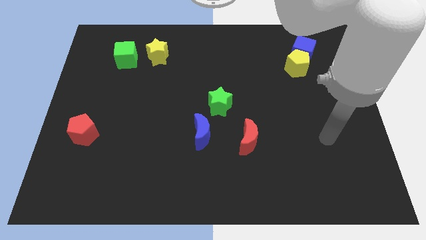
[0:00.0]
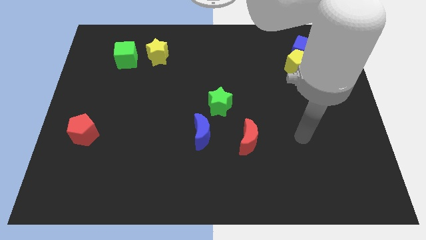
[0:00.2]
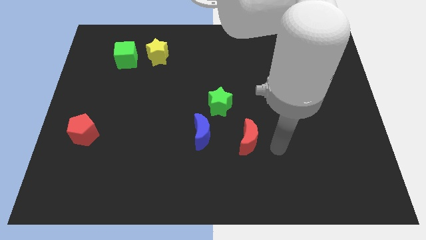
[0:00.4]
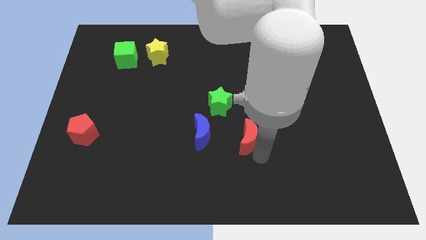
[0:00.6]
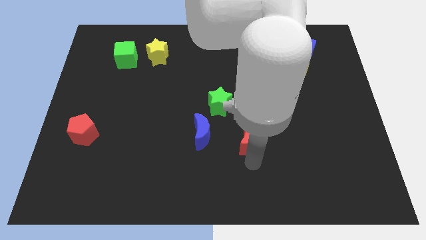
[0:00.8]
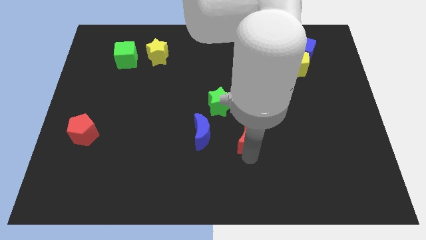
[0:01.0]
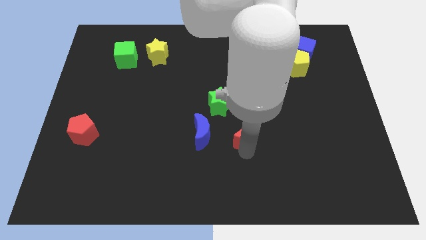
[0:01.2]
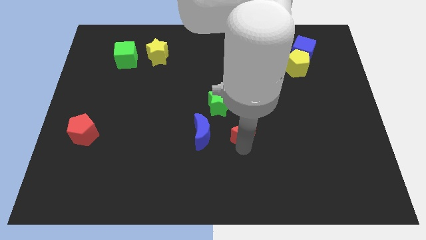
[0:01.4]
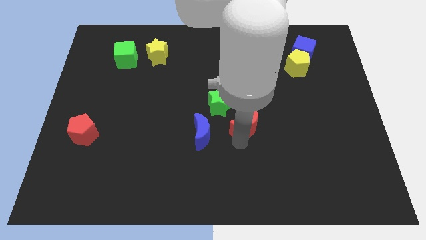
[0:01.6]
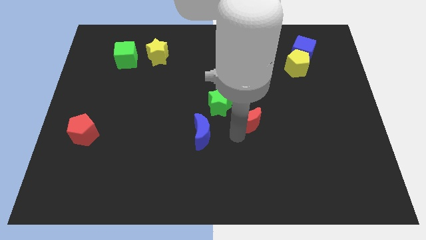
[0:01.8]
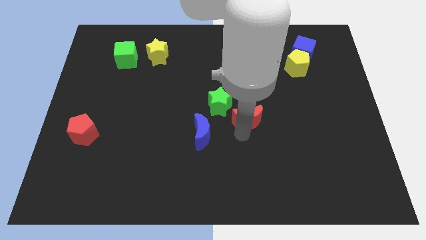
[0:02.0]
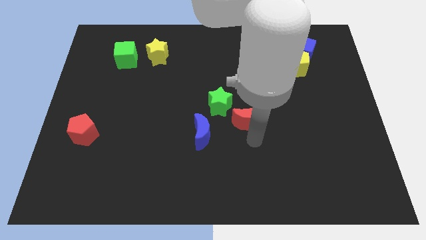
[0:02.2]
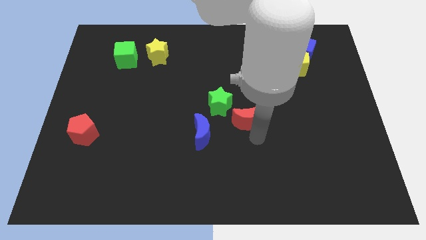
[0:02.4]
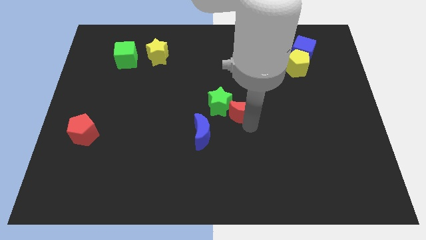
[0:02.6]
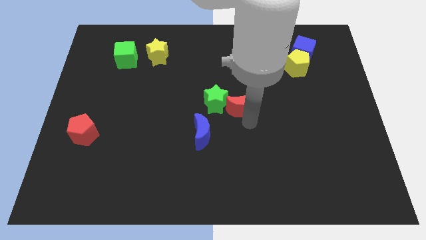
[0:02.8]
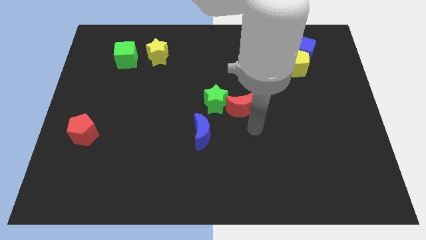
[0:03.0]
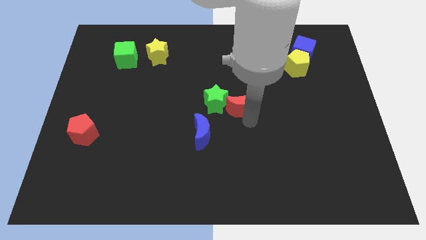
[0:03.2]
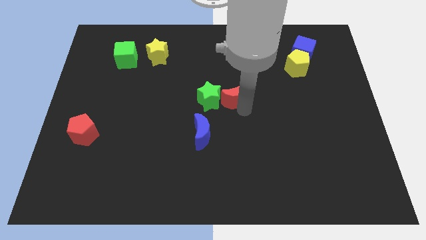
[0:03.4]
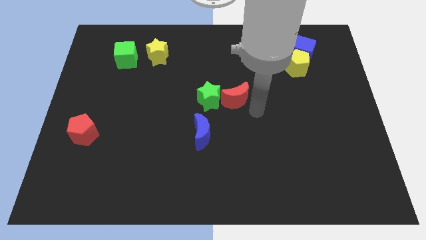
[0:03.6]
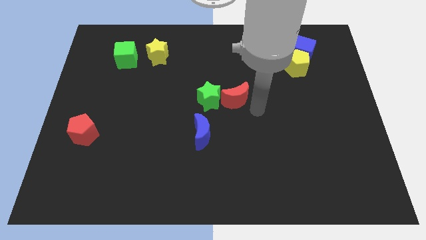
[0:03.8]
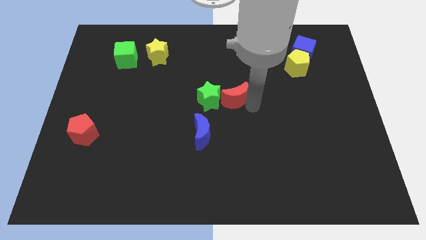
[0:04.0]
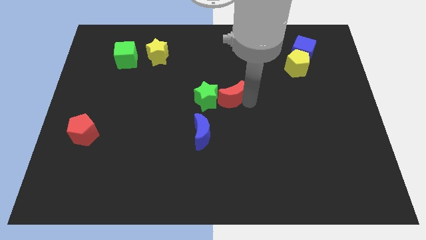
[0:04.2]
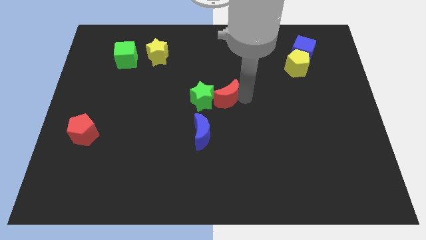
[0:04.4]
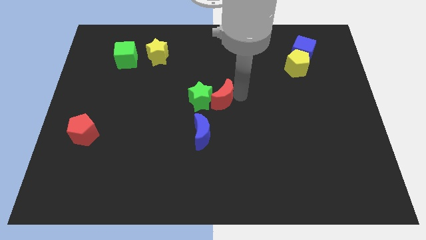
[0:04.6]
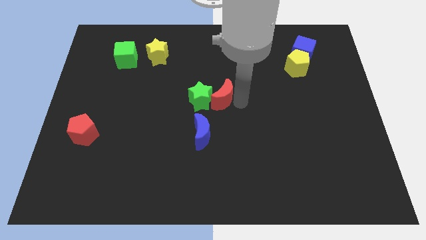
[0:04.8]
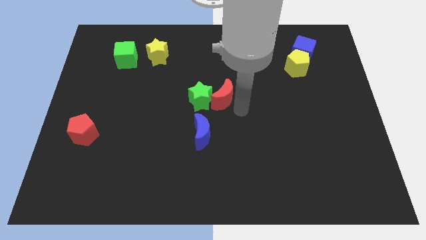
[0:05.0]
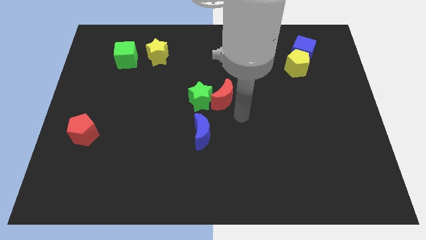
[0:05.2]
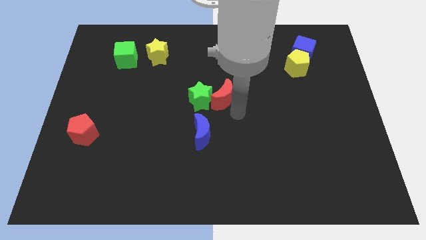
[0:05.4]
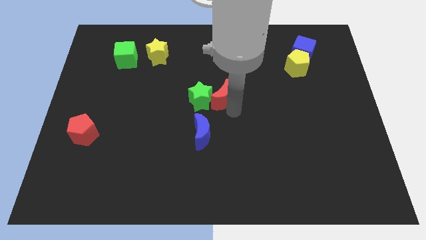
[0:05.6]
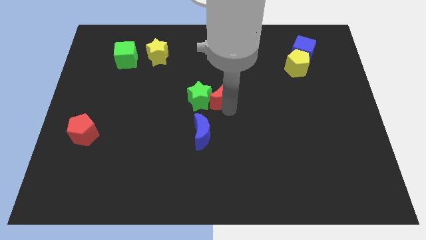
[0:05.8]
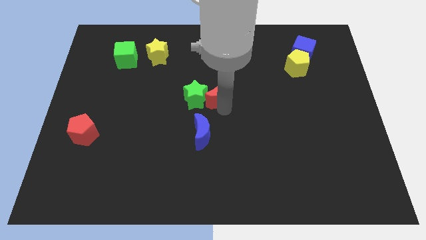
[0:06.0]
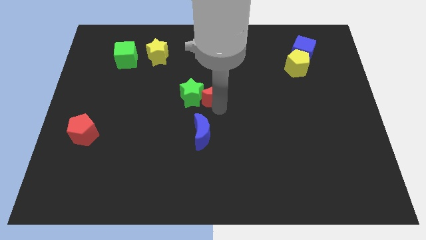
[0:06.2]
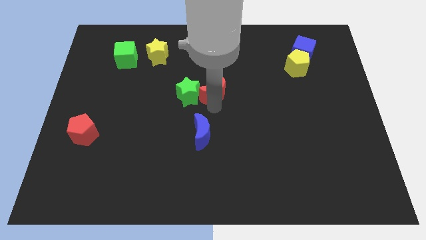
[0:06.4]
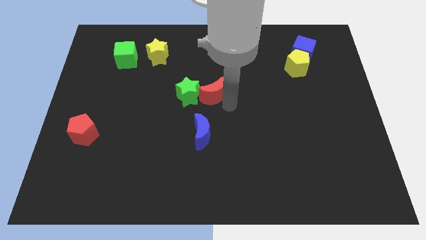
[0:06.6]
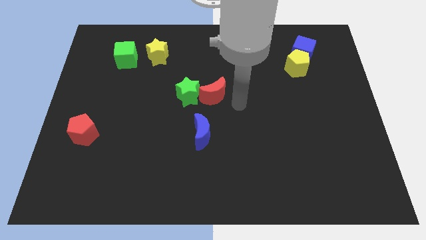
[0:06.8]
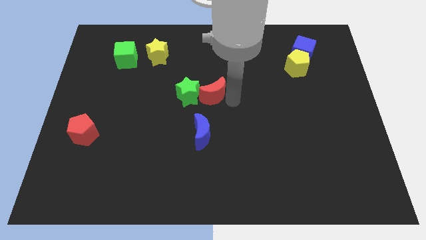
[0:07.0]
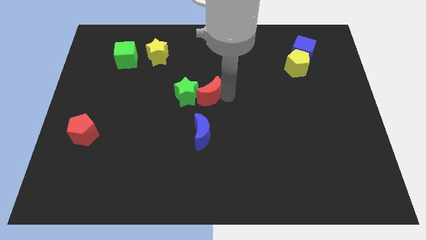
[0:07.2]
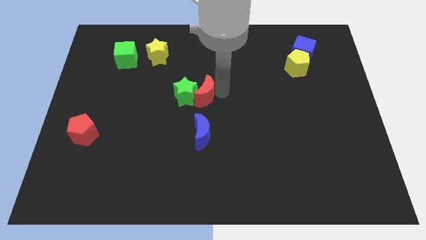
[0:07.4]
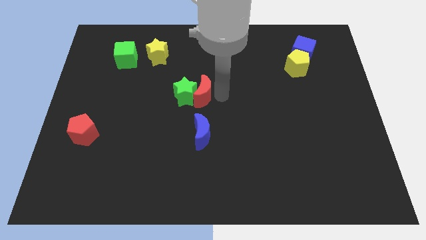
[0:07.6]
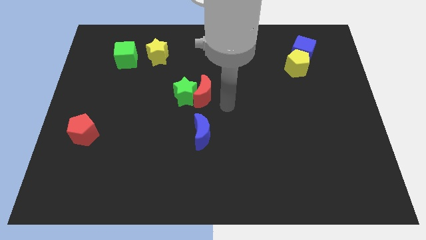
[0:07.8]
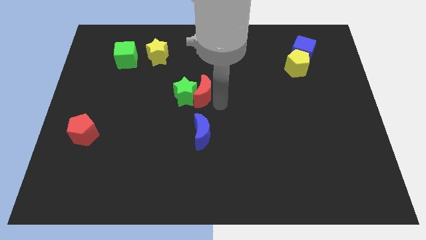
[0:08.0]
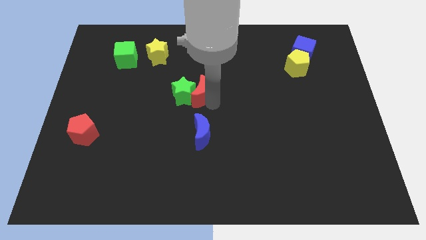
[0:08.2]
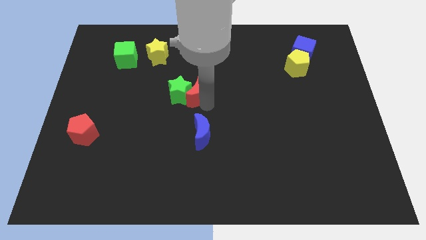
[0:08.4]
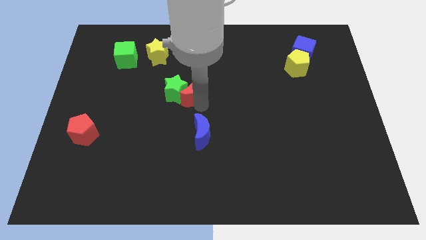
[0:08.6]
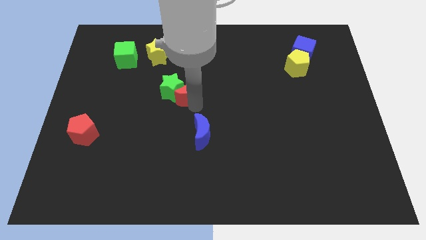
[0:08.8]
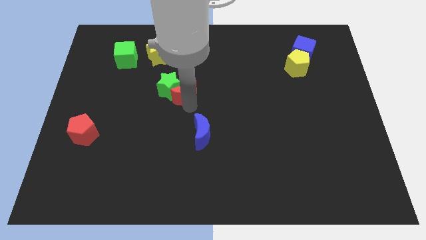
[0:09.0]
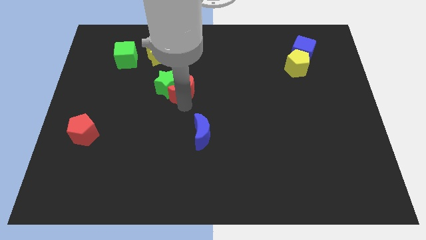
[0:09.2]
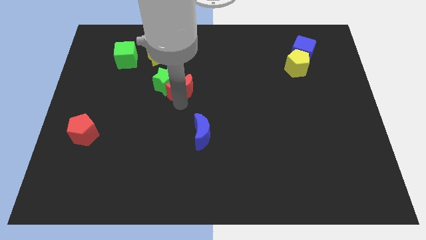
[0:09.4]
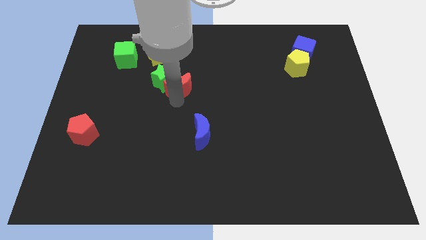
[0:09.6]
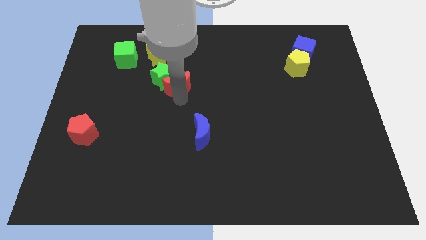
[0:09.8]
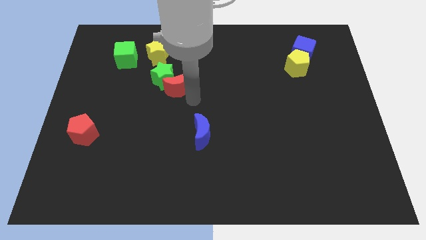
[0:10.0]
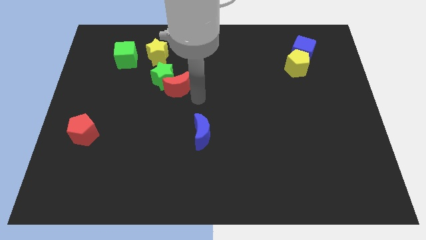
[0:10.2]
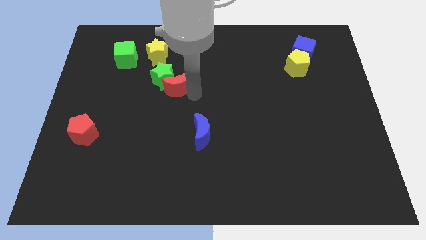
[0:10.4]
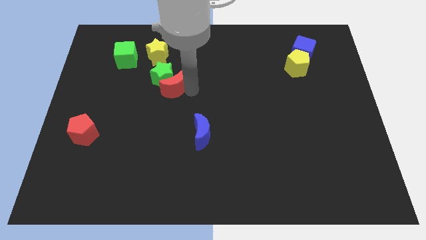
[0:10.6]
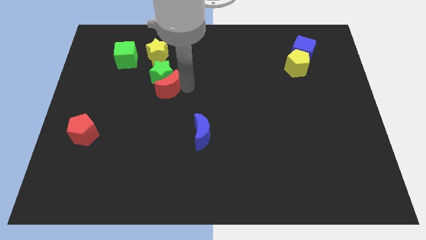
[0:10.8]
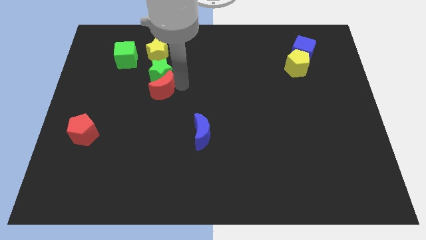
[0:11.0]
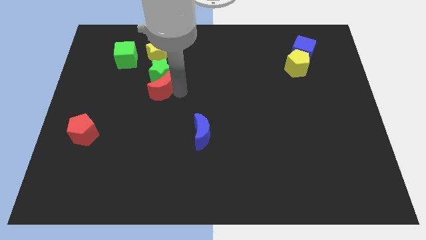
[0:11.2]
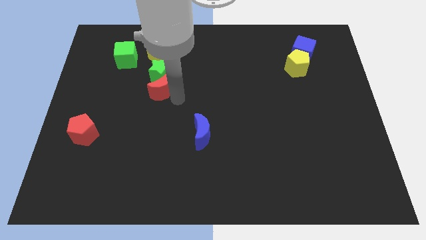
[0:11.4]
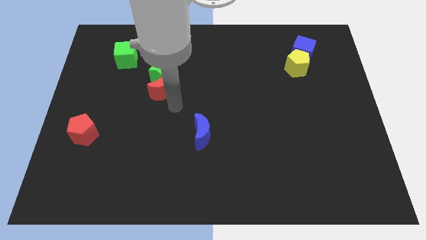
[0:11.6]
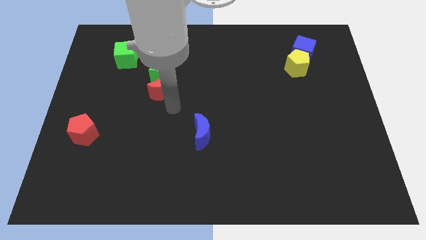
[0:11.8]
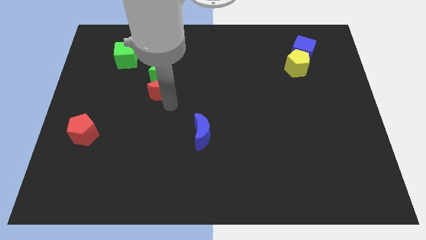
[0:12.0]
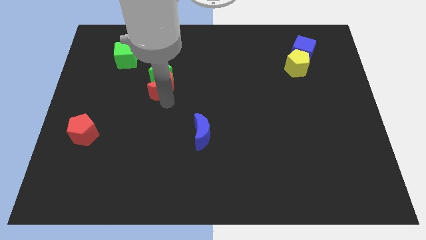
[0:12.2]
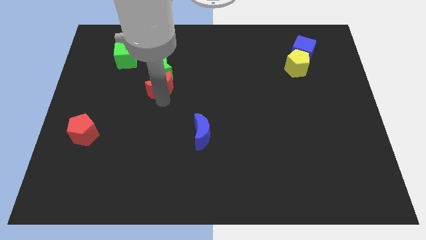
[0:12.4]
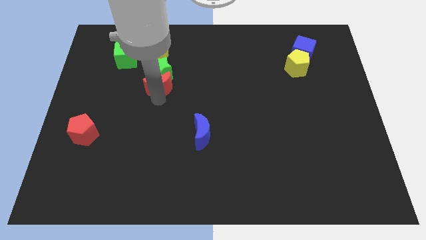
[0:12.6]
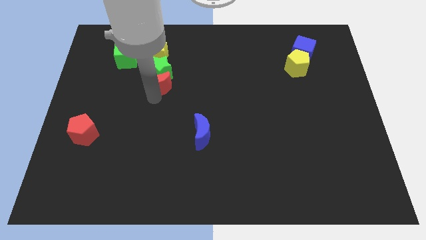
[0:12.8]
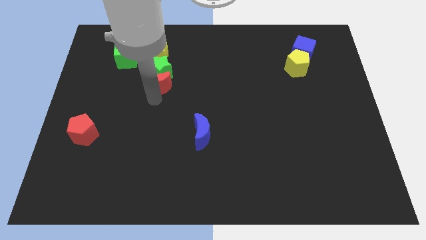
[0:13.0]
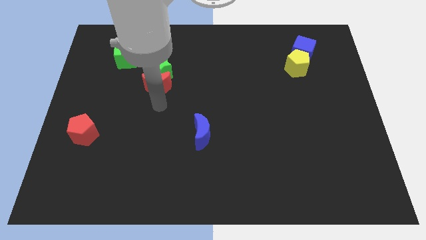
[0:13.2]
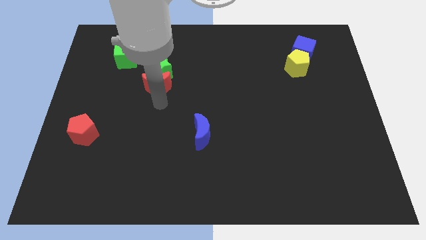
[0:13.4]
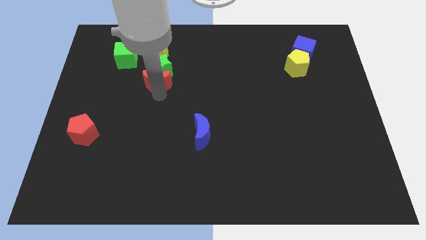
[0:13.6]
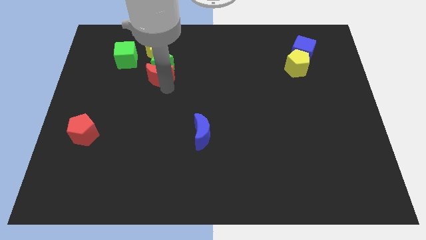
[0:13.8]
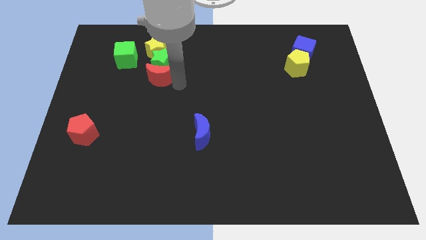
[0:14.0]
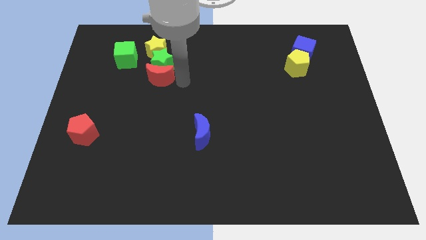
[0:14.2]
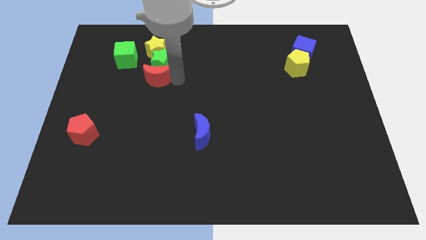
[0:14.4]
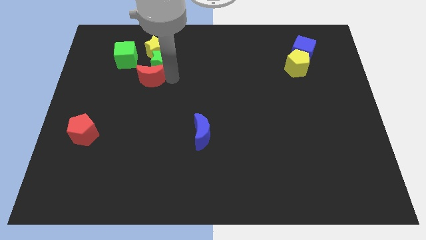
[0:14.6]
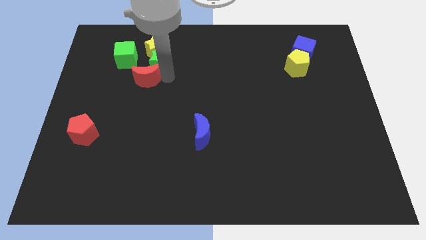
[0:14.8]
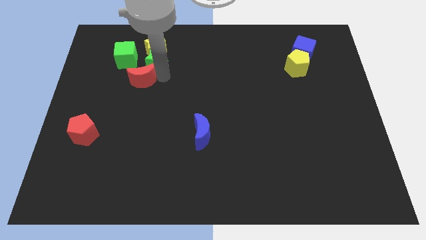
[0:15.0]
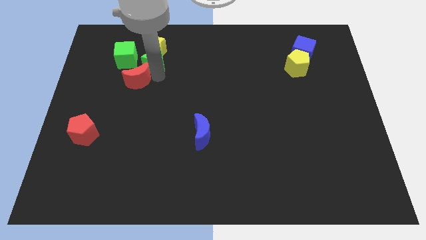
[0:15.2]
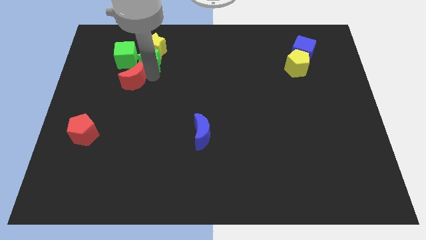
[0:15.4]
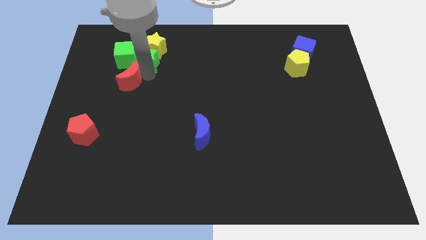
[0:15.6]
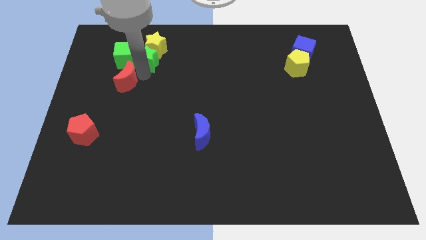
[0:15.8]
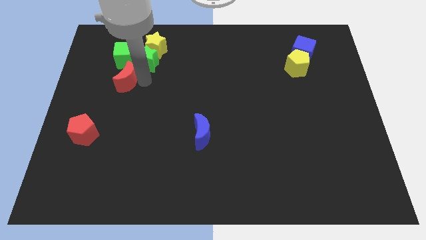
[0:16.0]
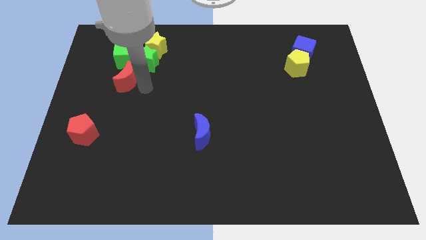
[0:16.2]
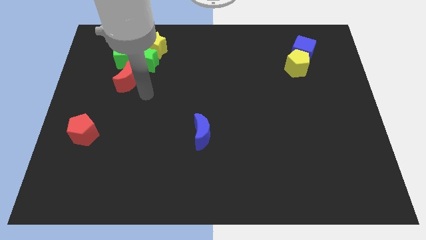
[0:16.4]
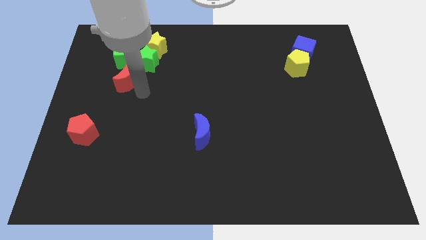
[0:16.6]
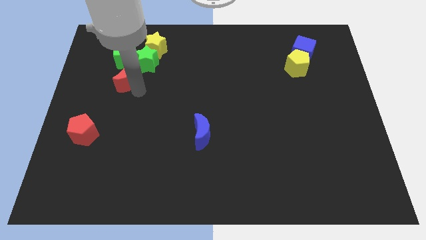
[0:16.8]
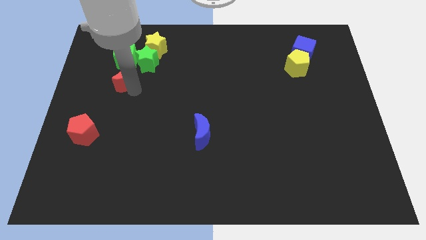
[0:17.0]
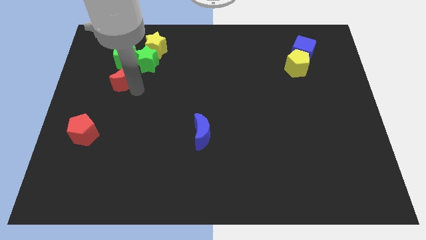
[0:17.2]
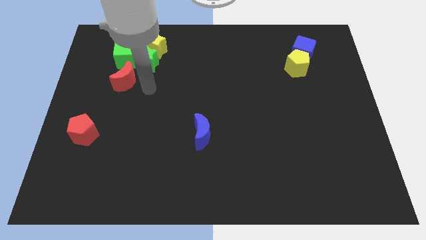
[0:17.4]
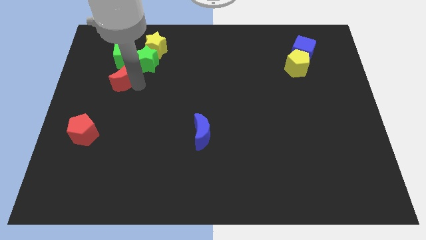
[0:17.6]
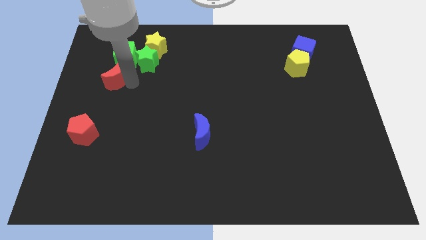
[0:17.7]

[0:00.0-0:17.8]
push the red moon to the bottom left of the green cube
